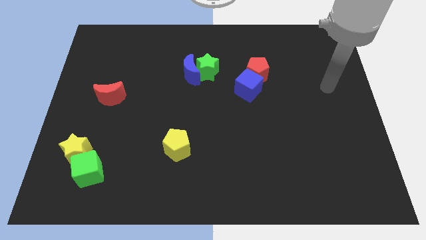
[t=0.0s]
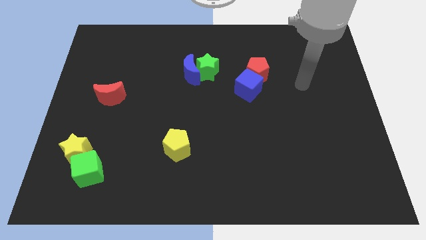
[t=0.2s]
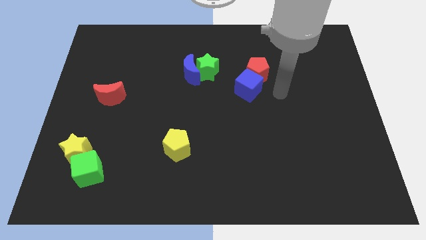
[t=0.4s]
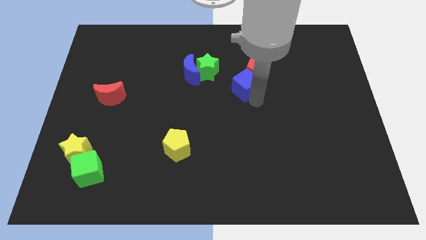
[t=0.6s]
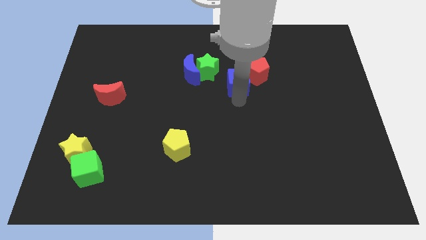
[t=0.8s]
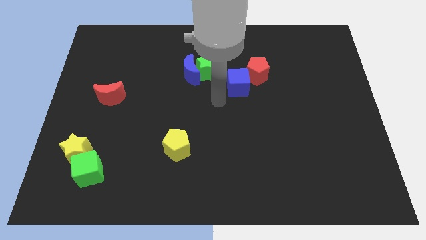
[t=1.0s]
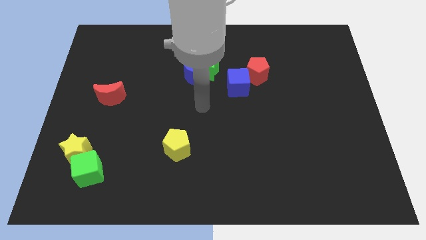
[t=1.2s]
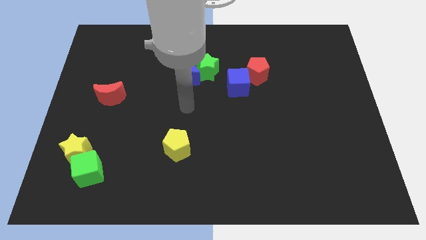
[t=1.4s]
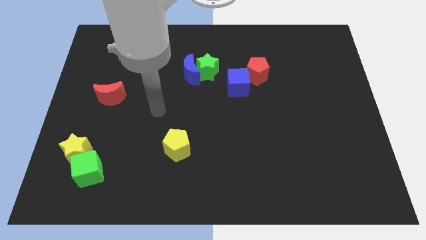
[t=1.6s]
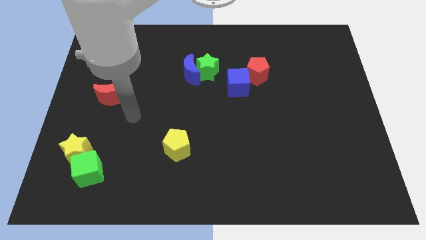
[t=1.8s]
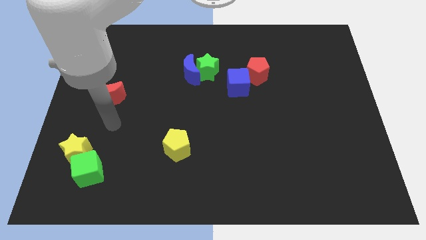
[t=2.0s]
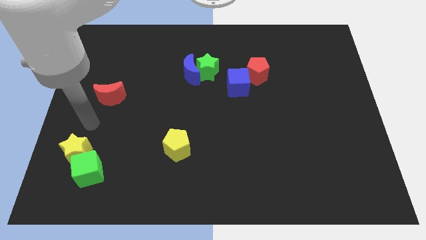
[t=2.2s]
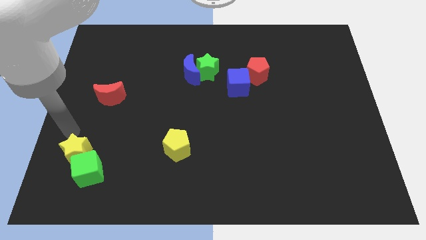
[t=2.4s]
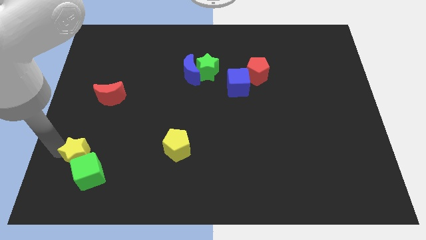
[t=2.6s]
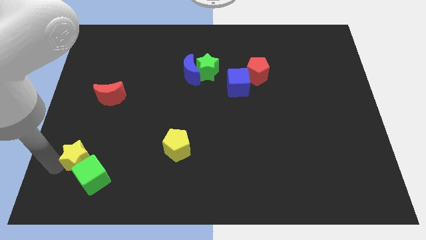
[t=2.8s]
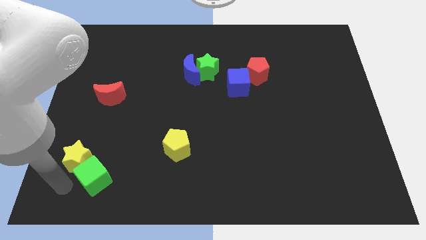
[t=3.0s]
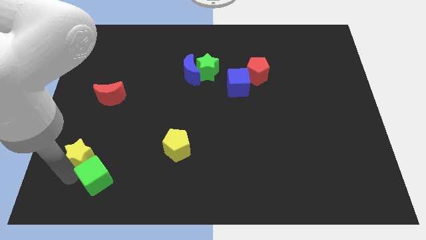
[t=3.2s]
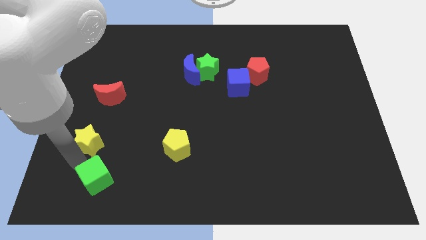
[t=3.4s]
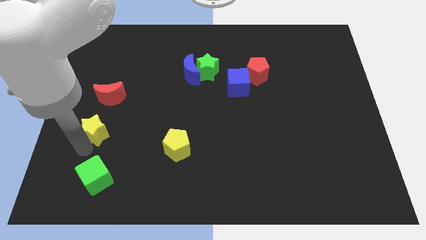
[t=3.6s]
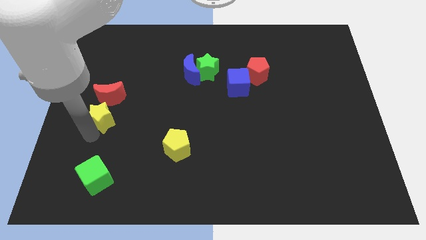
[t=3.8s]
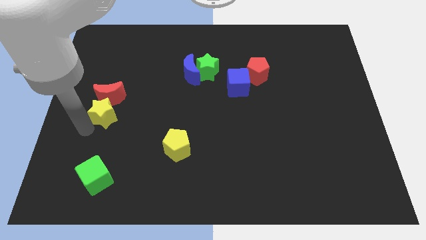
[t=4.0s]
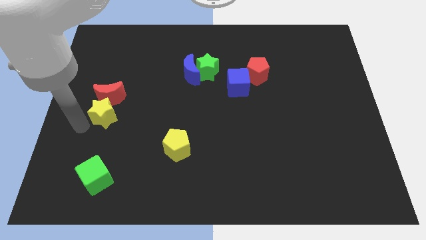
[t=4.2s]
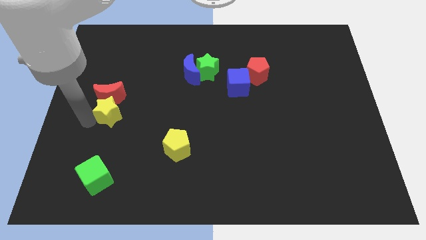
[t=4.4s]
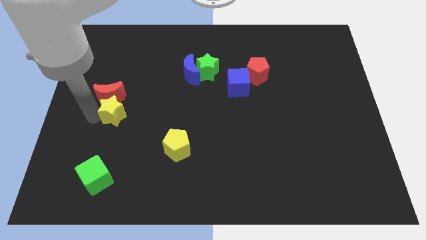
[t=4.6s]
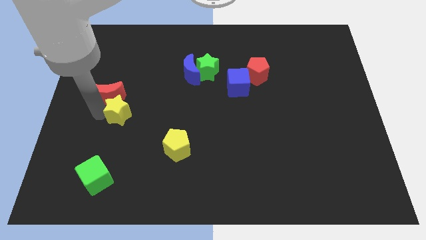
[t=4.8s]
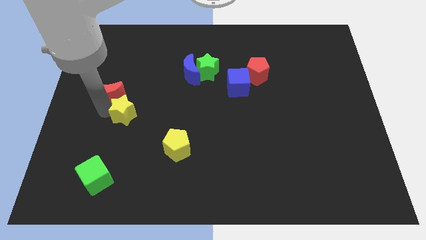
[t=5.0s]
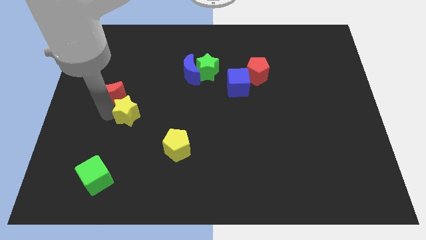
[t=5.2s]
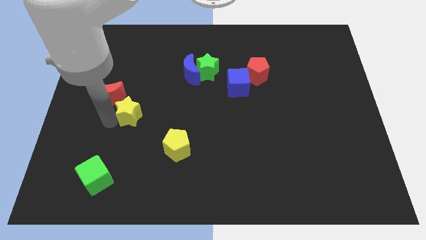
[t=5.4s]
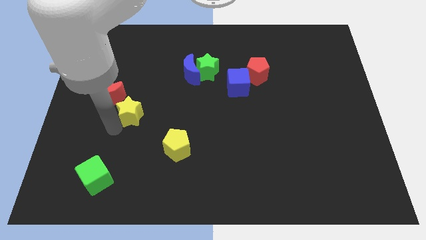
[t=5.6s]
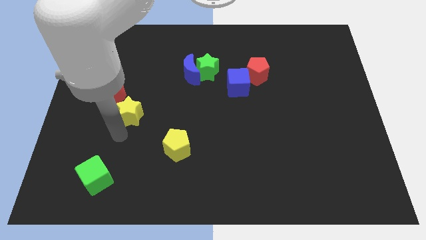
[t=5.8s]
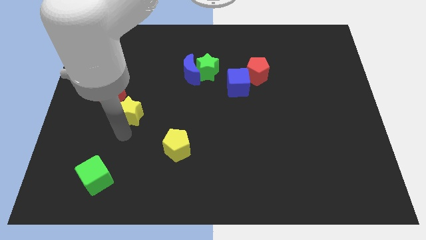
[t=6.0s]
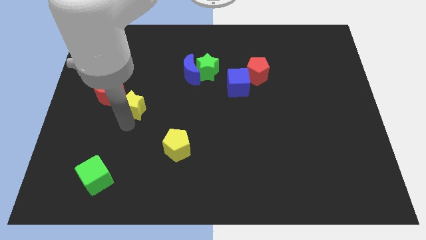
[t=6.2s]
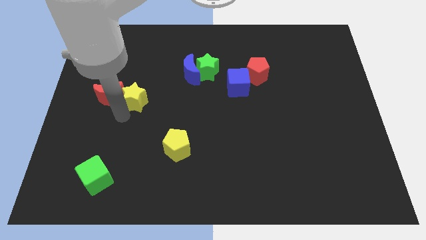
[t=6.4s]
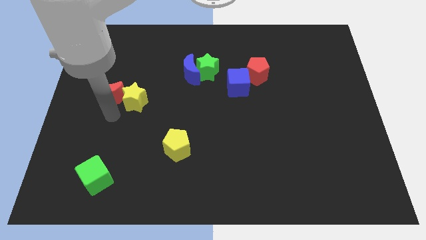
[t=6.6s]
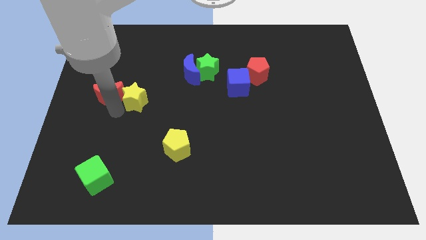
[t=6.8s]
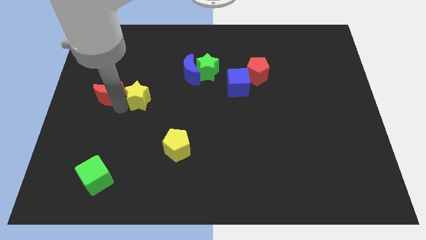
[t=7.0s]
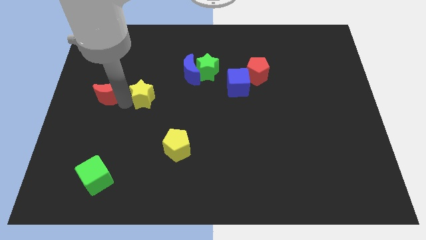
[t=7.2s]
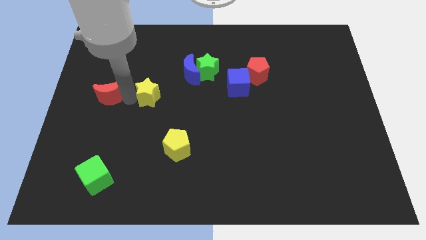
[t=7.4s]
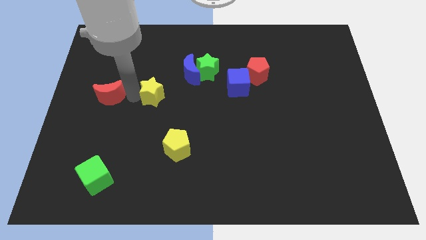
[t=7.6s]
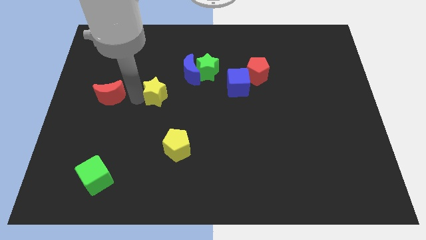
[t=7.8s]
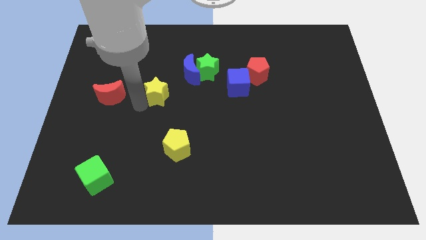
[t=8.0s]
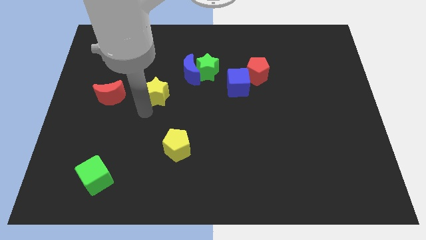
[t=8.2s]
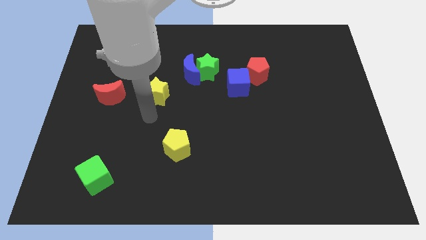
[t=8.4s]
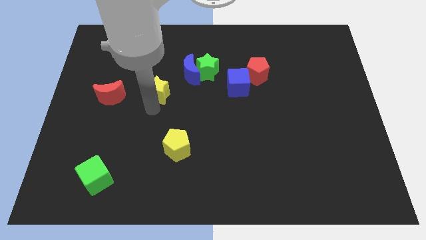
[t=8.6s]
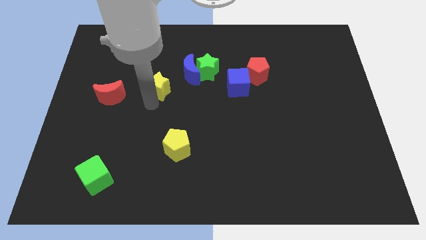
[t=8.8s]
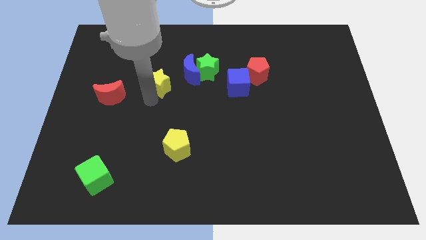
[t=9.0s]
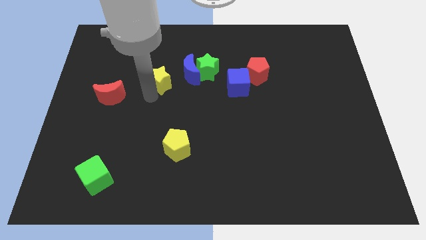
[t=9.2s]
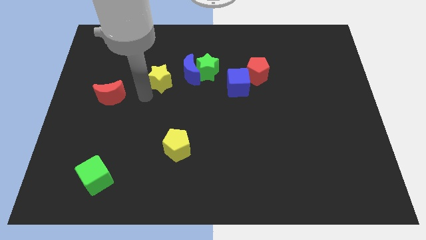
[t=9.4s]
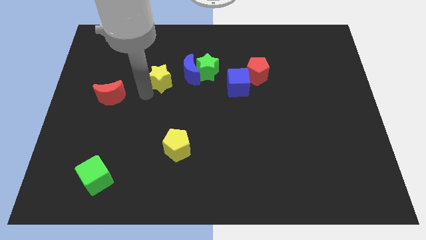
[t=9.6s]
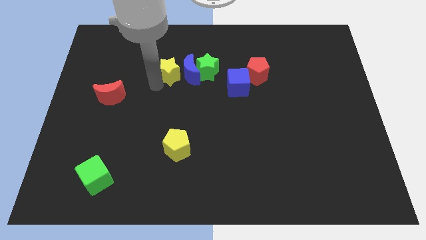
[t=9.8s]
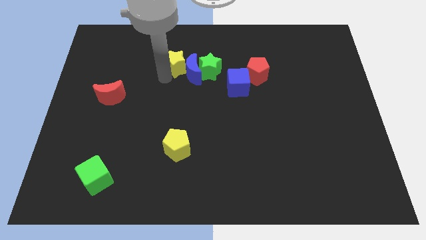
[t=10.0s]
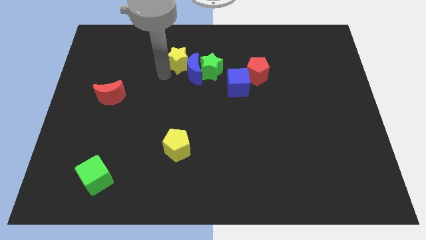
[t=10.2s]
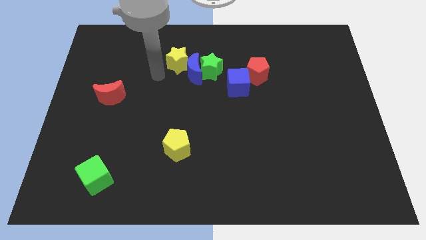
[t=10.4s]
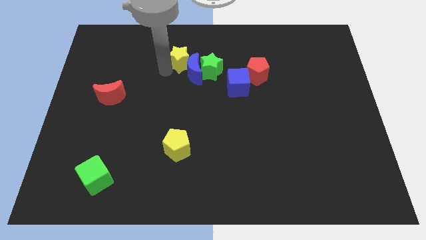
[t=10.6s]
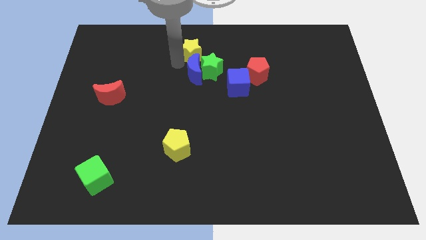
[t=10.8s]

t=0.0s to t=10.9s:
push the yellow star to the towards your base
